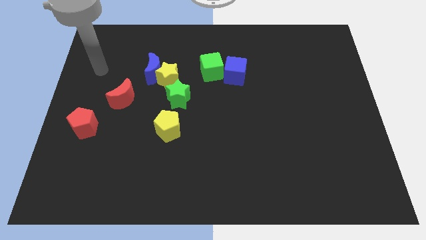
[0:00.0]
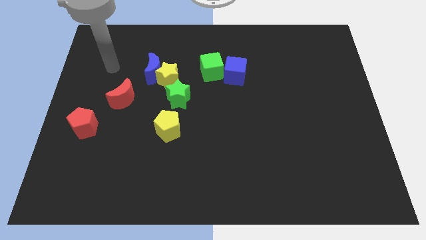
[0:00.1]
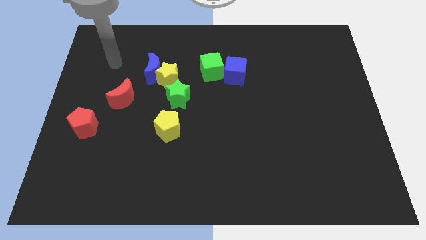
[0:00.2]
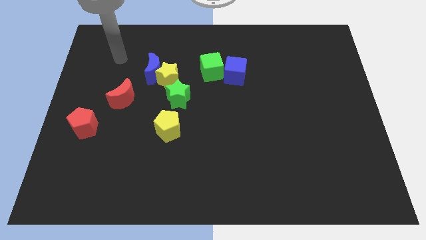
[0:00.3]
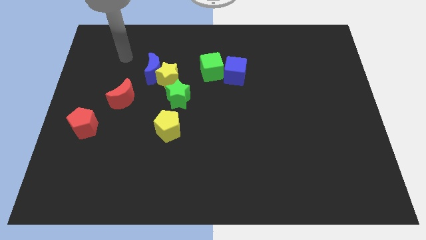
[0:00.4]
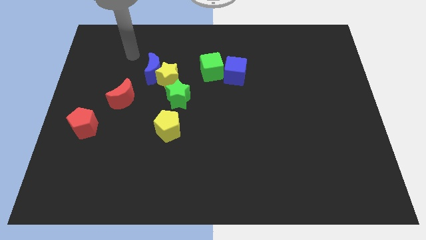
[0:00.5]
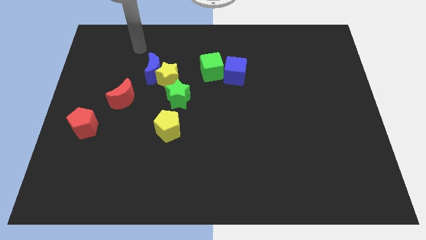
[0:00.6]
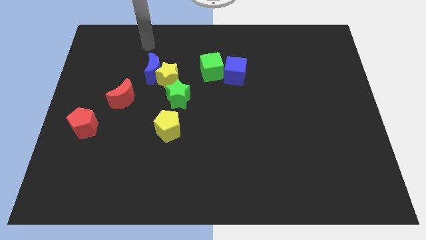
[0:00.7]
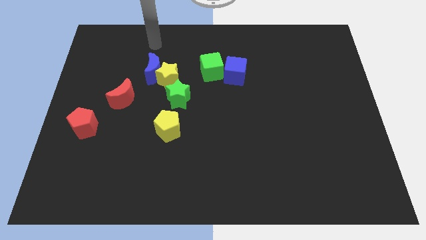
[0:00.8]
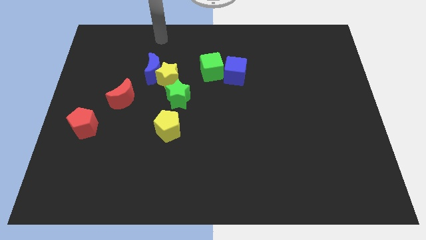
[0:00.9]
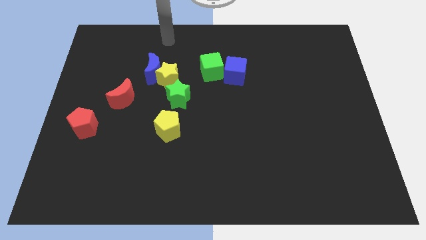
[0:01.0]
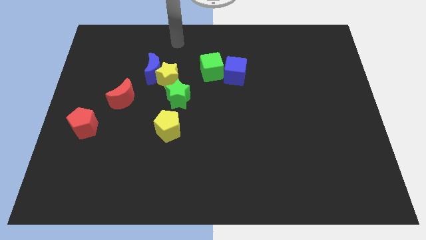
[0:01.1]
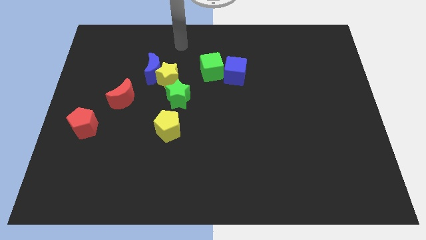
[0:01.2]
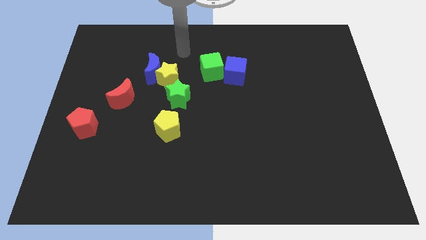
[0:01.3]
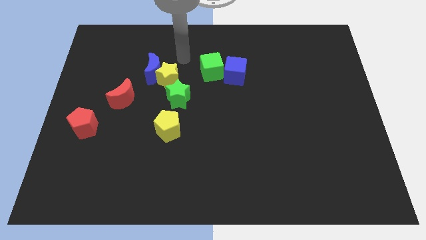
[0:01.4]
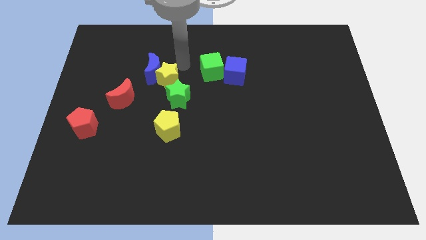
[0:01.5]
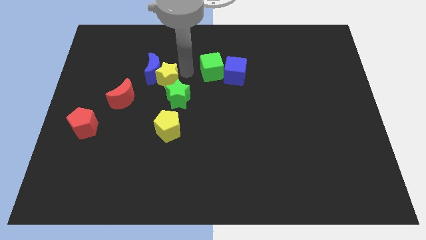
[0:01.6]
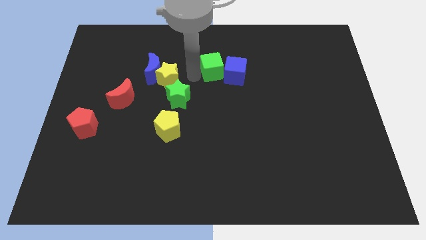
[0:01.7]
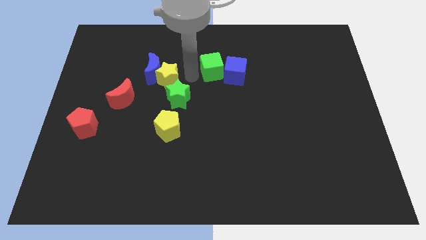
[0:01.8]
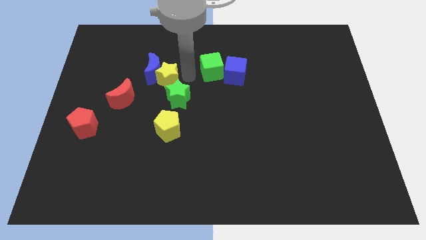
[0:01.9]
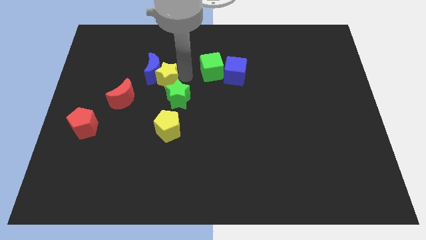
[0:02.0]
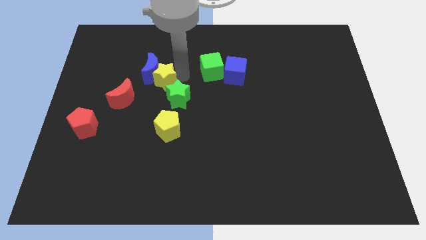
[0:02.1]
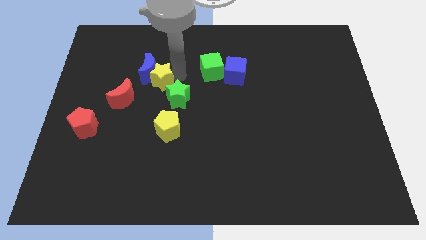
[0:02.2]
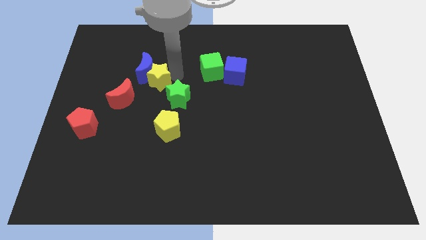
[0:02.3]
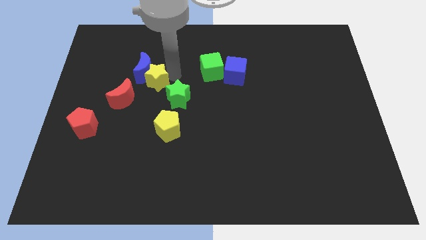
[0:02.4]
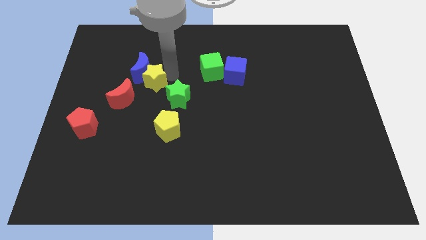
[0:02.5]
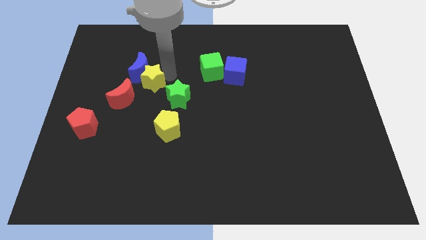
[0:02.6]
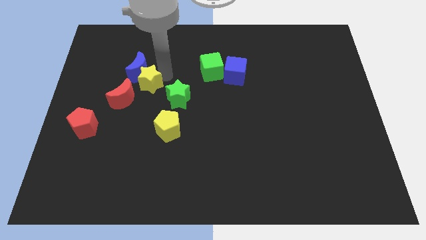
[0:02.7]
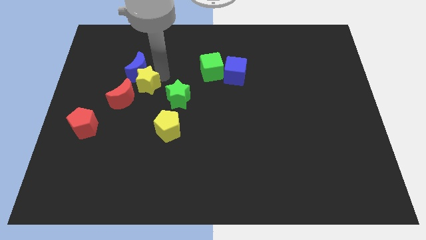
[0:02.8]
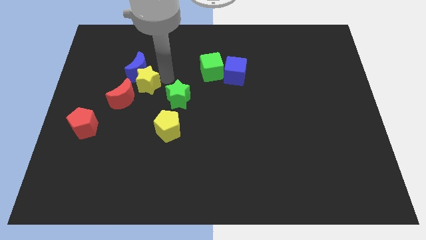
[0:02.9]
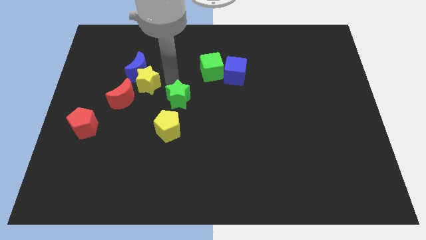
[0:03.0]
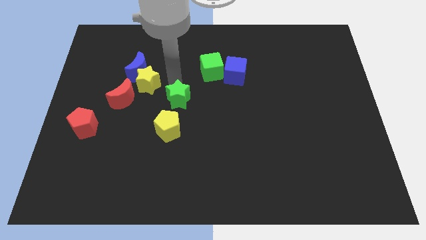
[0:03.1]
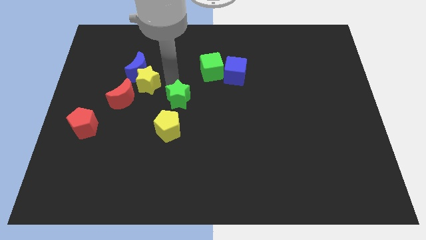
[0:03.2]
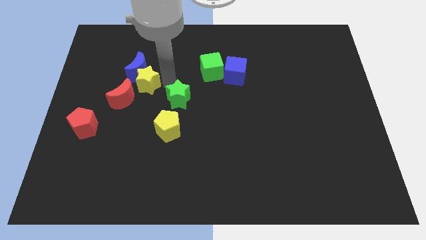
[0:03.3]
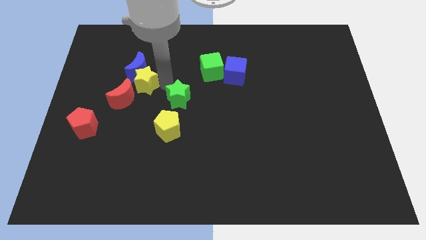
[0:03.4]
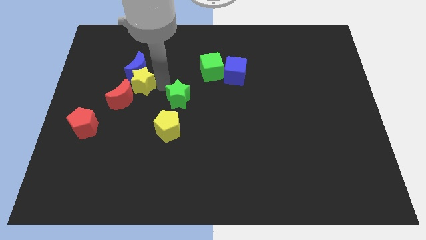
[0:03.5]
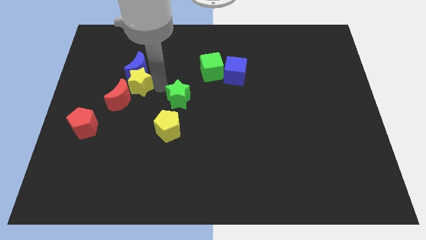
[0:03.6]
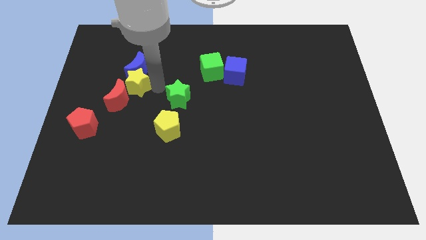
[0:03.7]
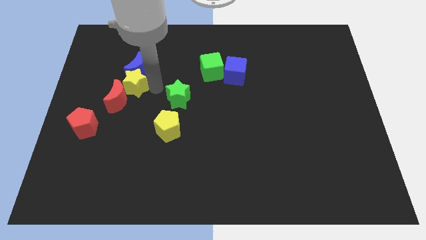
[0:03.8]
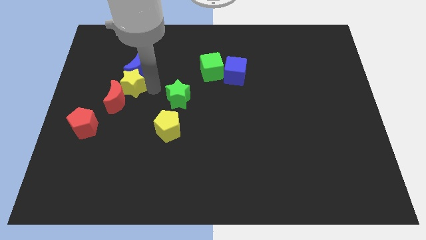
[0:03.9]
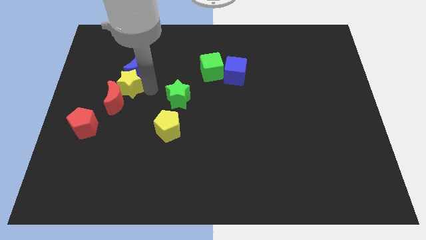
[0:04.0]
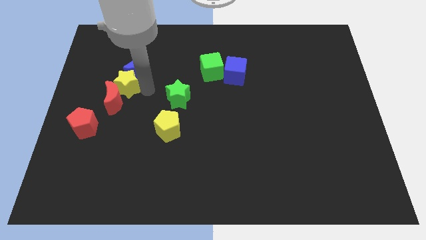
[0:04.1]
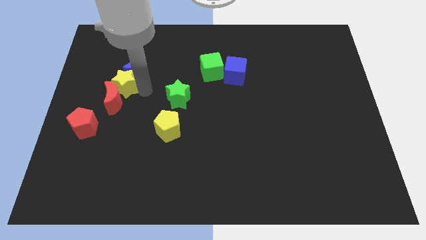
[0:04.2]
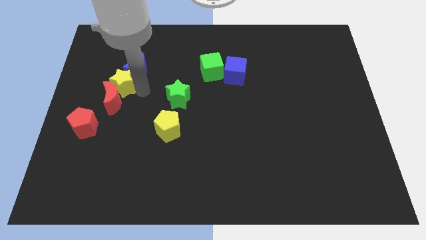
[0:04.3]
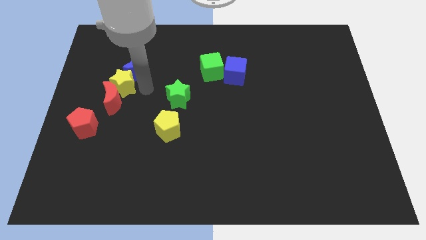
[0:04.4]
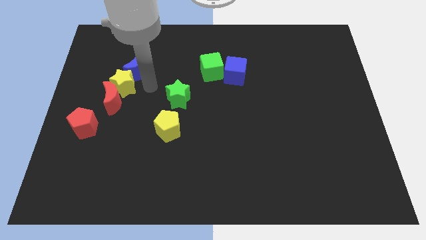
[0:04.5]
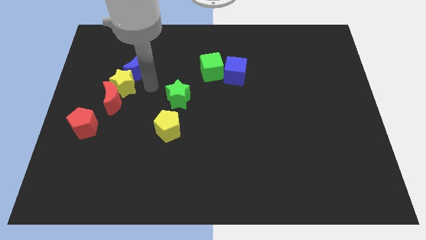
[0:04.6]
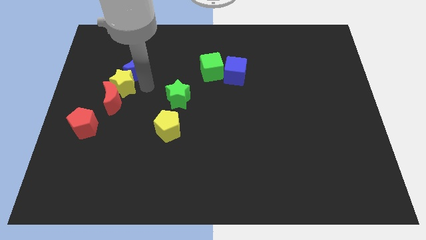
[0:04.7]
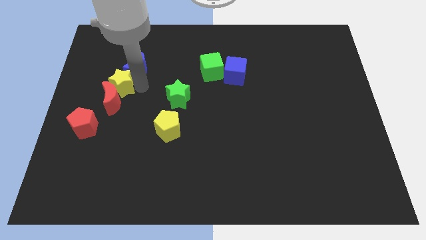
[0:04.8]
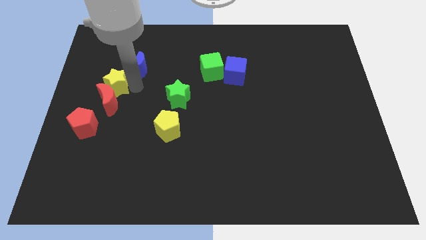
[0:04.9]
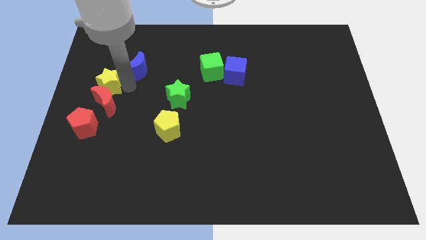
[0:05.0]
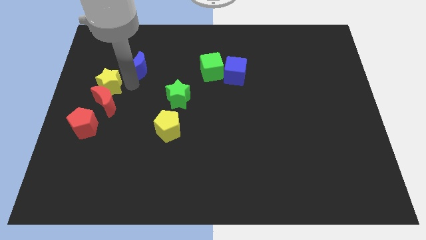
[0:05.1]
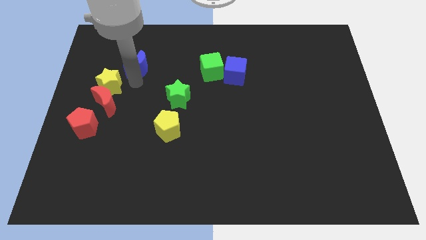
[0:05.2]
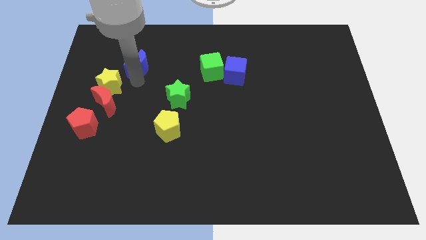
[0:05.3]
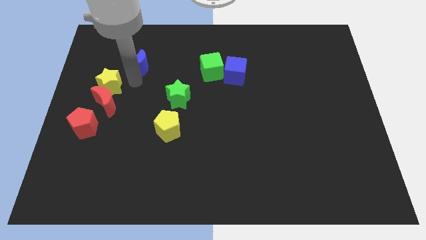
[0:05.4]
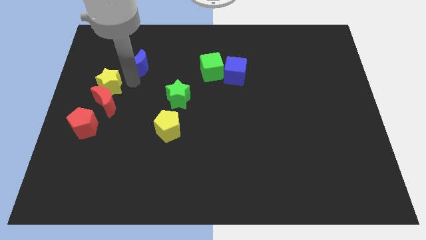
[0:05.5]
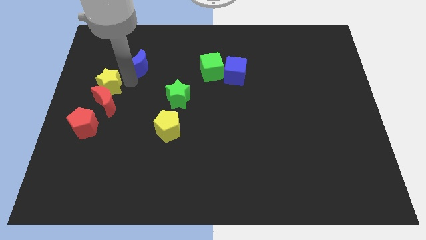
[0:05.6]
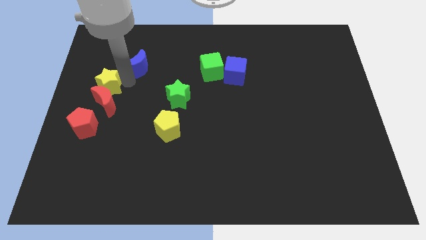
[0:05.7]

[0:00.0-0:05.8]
move the yellow star to the center left

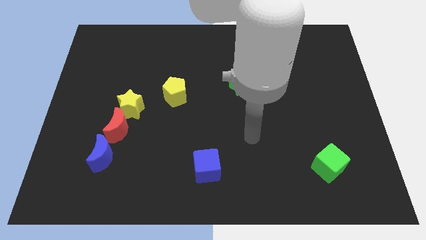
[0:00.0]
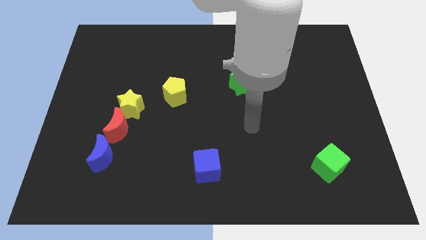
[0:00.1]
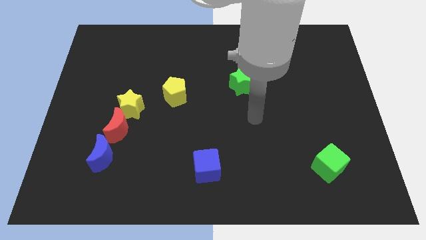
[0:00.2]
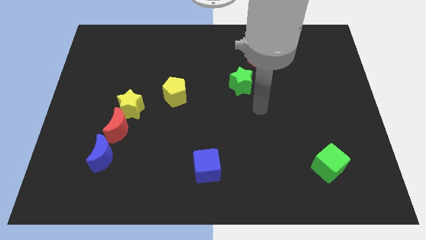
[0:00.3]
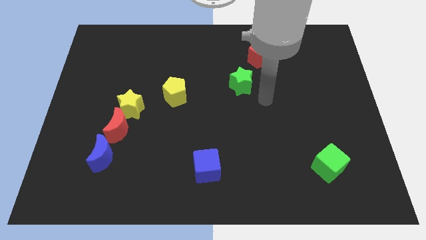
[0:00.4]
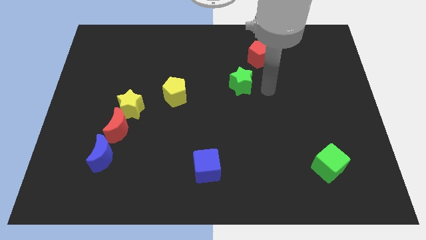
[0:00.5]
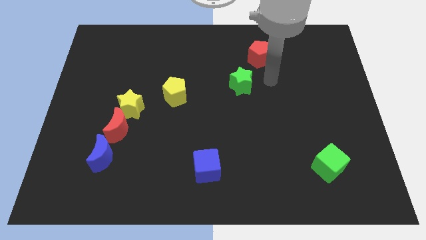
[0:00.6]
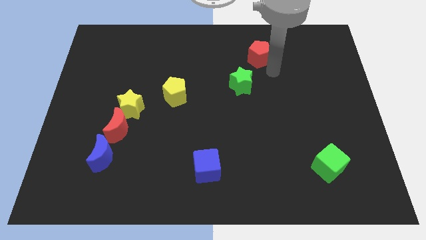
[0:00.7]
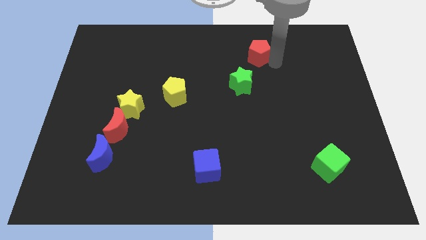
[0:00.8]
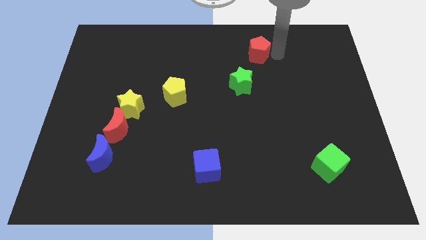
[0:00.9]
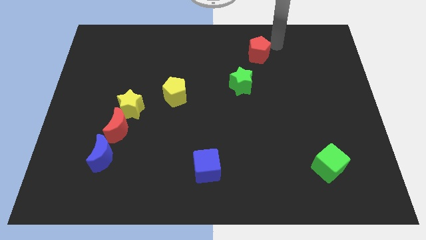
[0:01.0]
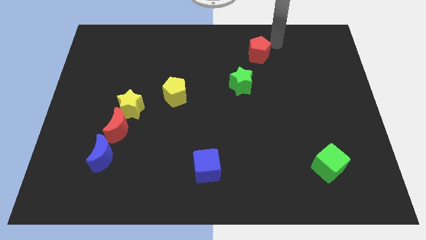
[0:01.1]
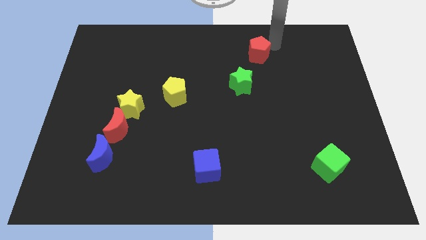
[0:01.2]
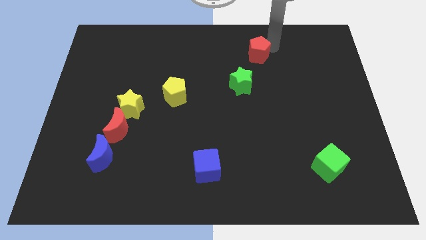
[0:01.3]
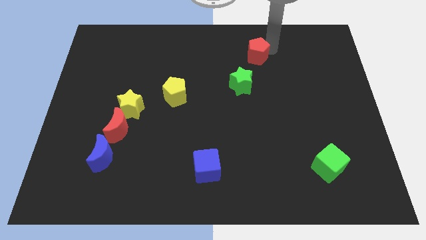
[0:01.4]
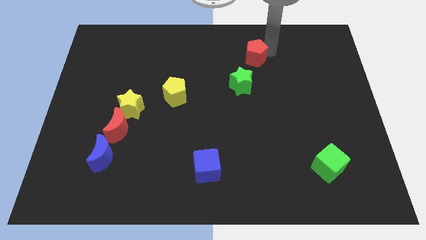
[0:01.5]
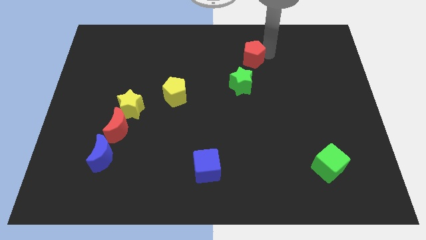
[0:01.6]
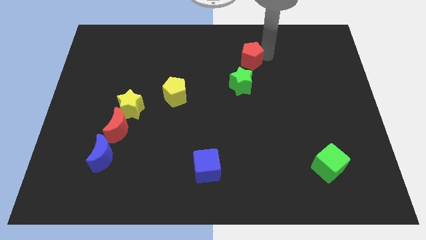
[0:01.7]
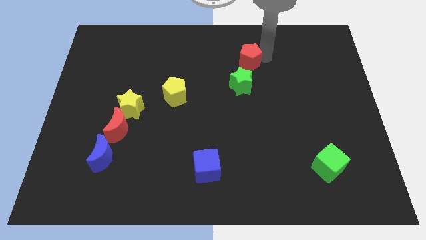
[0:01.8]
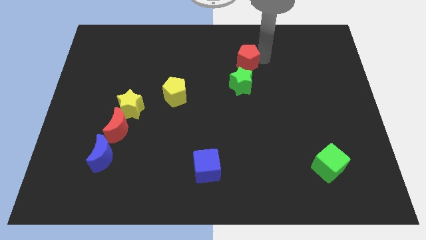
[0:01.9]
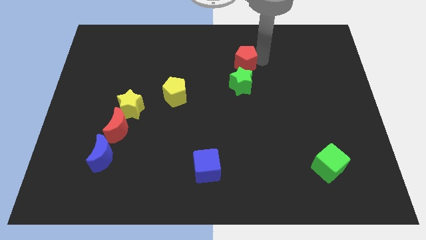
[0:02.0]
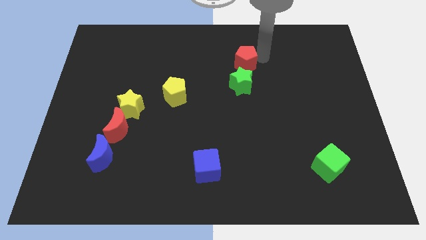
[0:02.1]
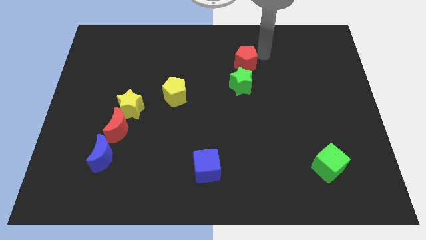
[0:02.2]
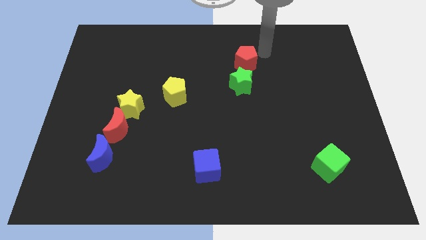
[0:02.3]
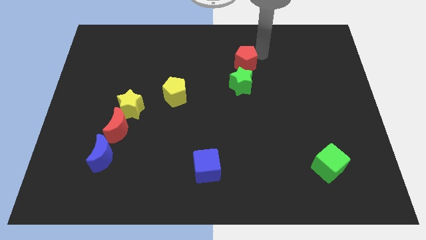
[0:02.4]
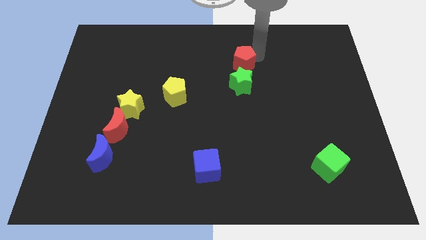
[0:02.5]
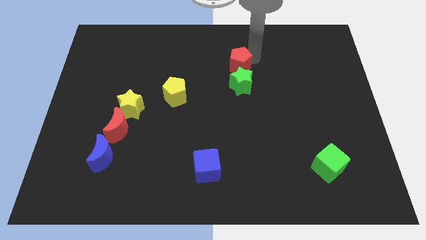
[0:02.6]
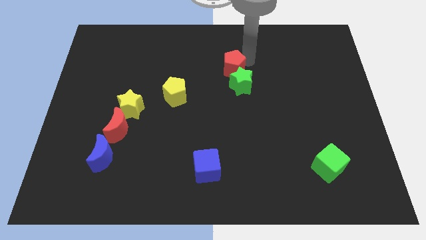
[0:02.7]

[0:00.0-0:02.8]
move the red pentagon to the center of the board
